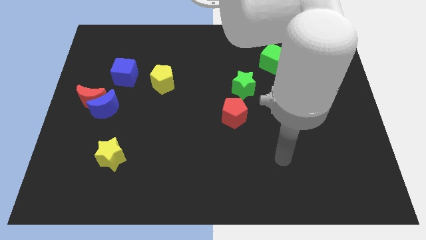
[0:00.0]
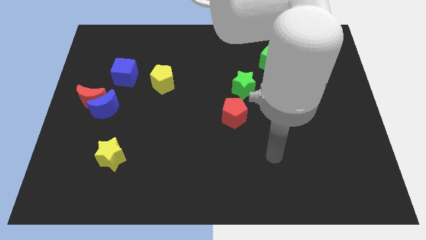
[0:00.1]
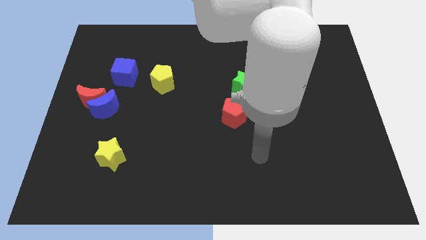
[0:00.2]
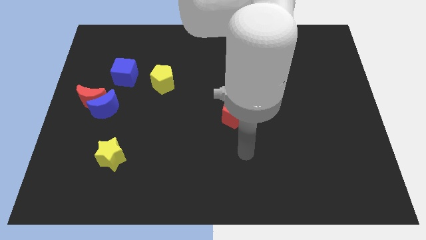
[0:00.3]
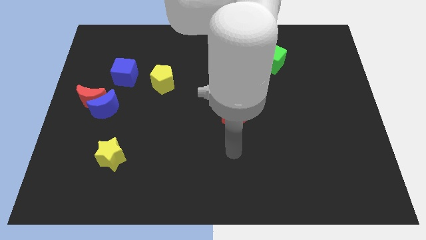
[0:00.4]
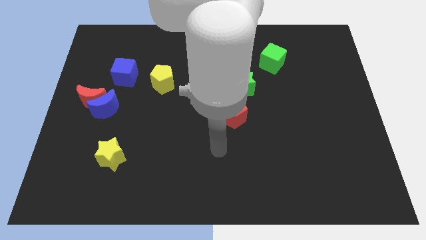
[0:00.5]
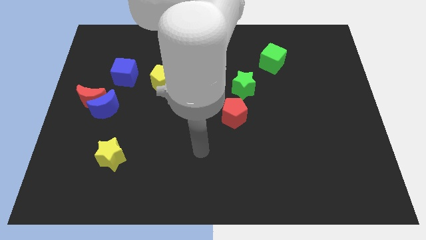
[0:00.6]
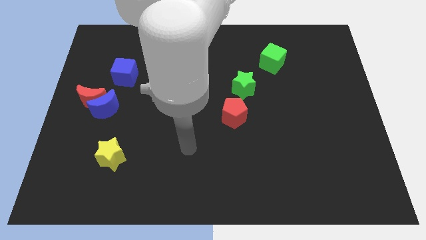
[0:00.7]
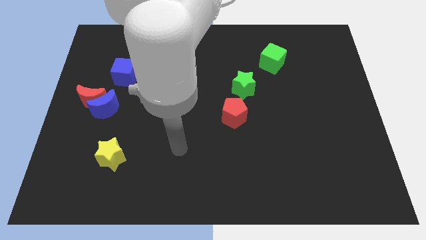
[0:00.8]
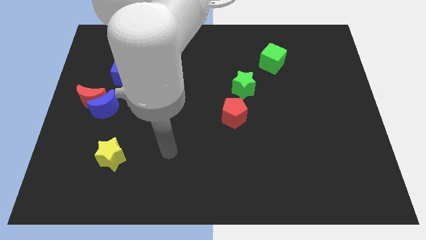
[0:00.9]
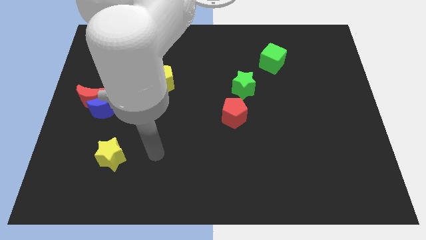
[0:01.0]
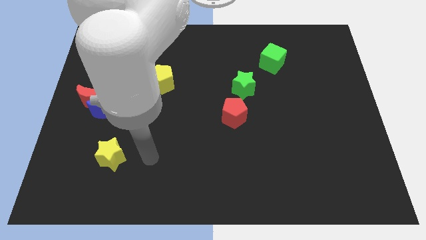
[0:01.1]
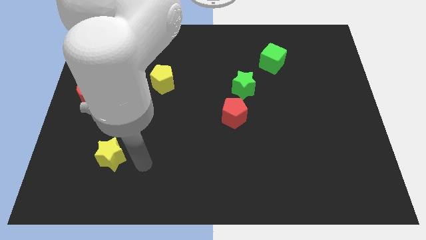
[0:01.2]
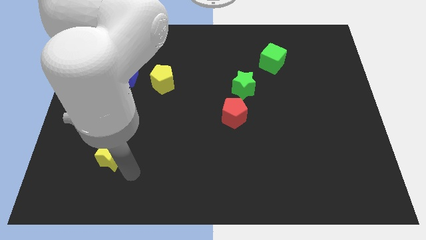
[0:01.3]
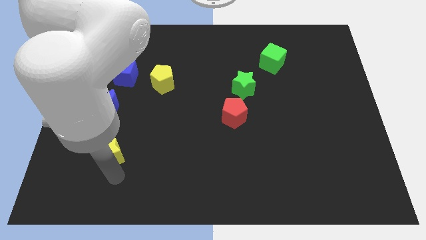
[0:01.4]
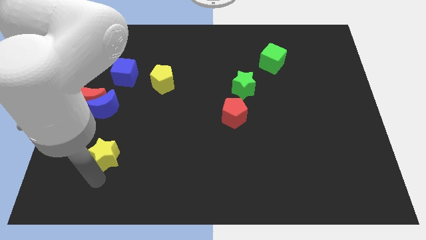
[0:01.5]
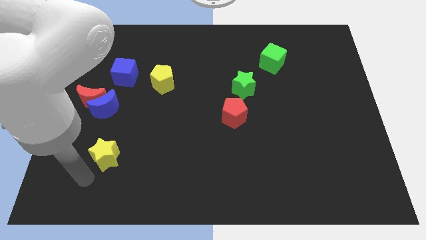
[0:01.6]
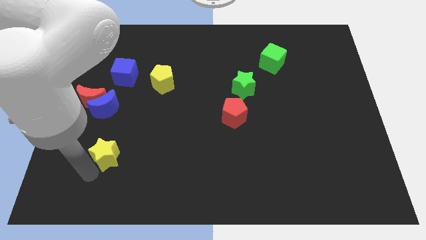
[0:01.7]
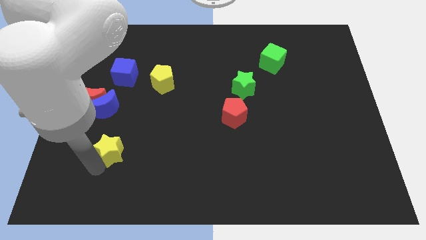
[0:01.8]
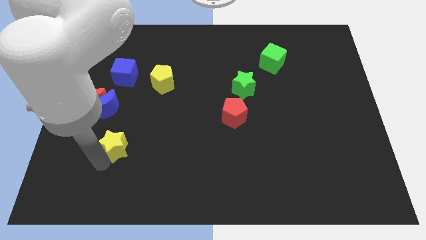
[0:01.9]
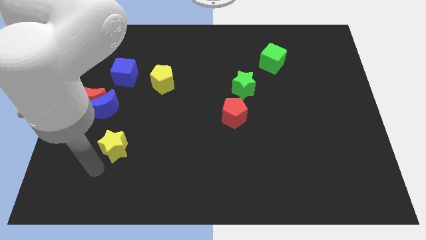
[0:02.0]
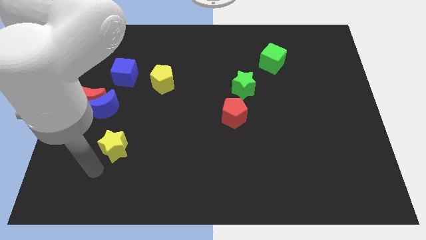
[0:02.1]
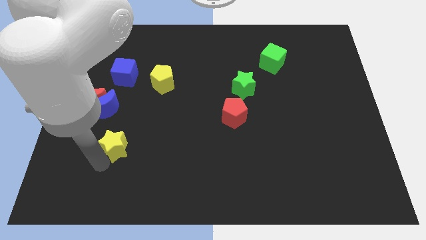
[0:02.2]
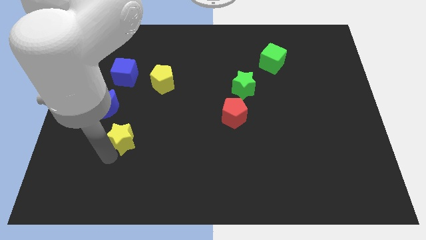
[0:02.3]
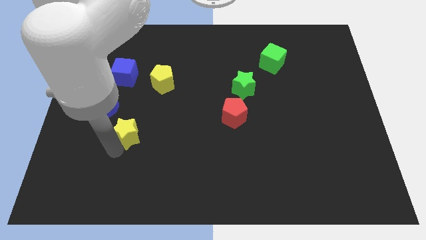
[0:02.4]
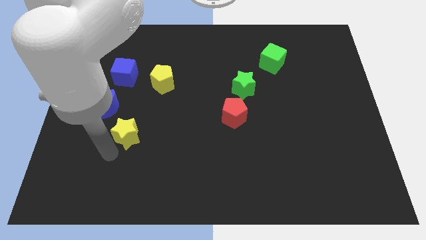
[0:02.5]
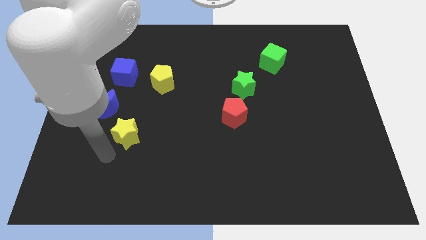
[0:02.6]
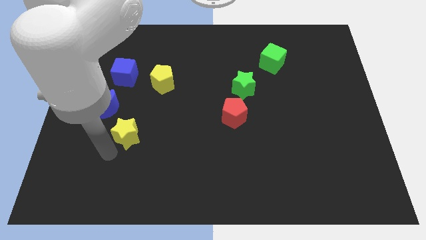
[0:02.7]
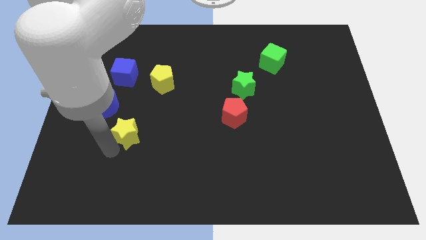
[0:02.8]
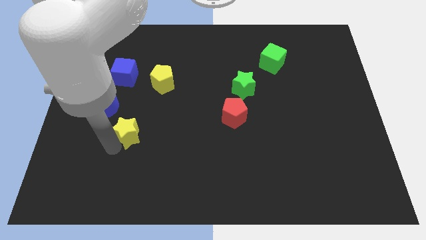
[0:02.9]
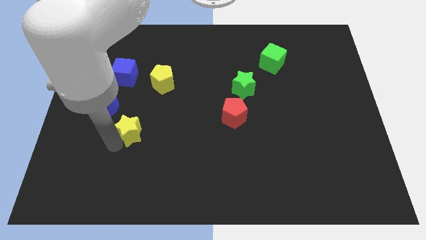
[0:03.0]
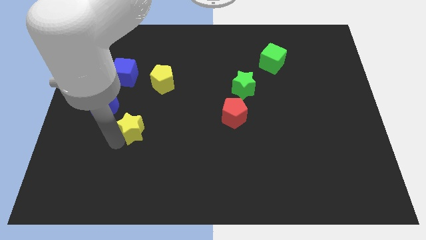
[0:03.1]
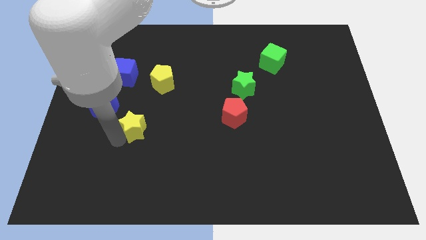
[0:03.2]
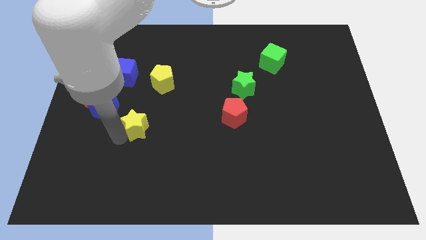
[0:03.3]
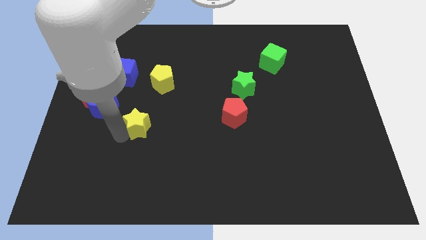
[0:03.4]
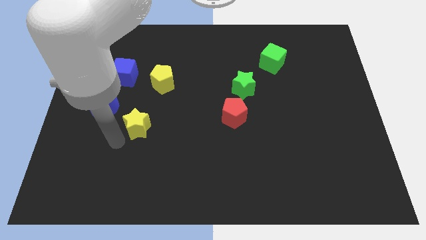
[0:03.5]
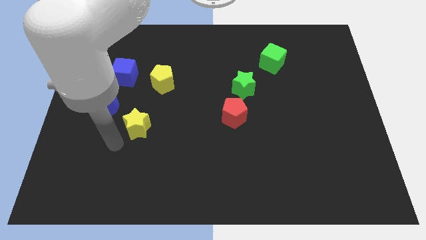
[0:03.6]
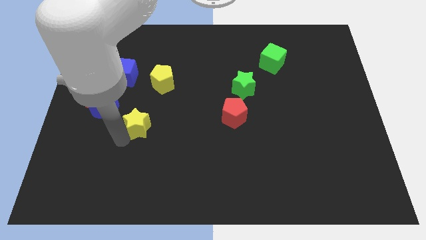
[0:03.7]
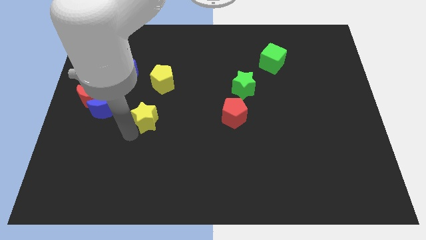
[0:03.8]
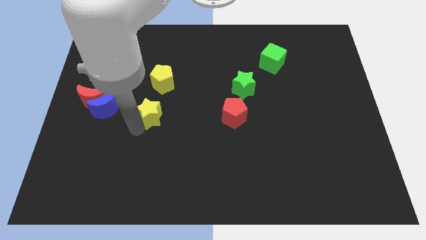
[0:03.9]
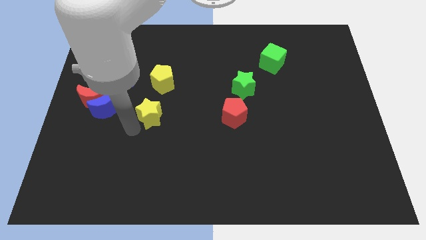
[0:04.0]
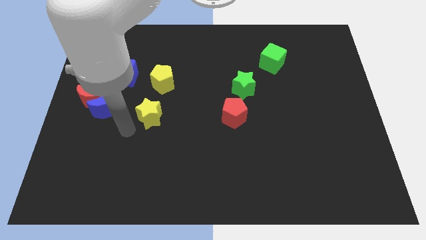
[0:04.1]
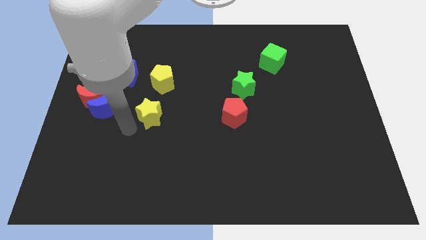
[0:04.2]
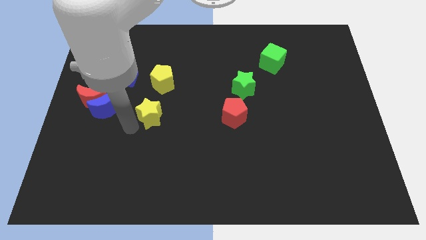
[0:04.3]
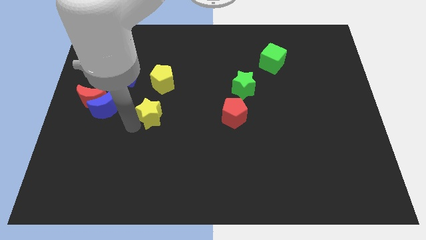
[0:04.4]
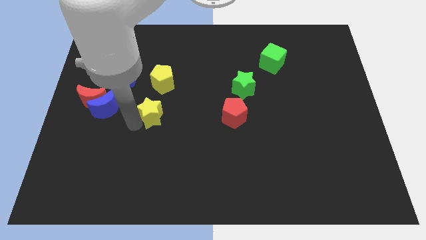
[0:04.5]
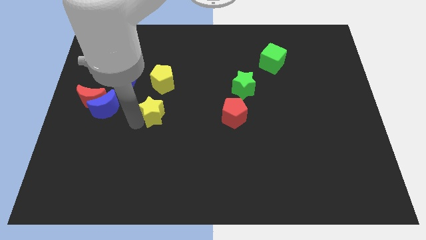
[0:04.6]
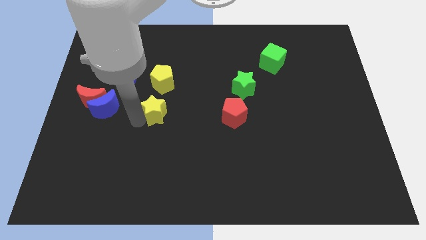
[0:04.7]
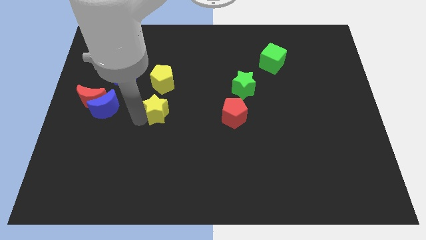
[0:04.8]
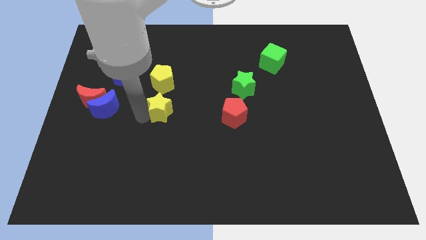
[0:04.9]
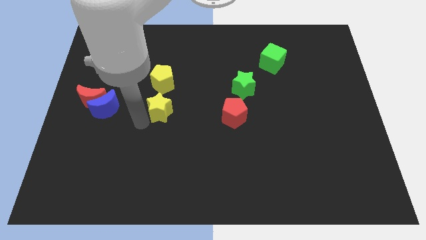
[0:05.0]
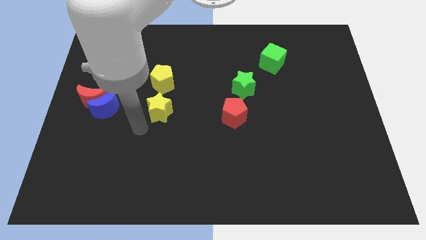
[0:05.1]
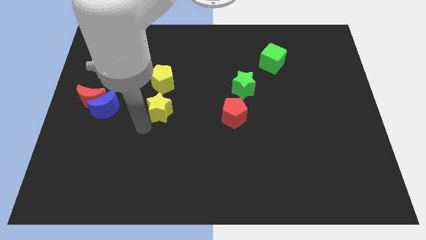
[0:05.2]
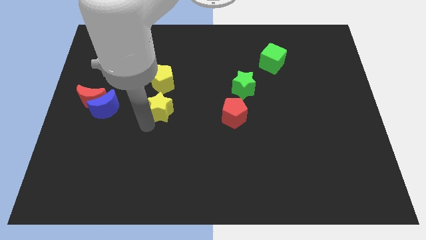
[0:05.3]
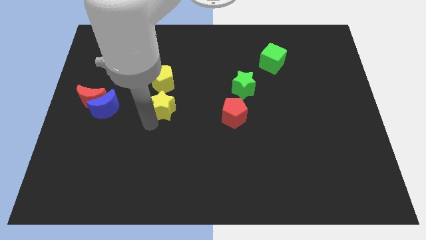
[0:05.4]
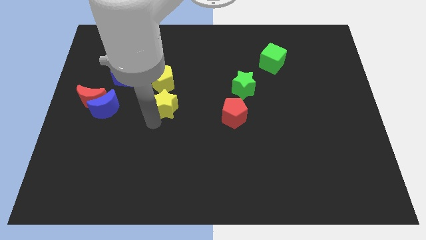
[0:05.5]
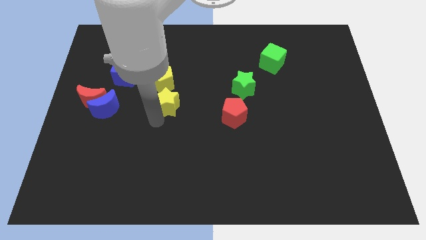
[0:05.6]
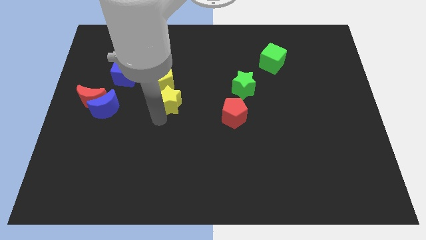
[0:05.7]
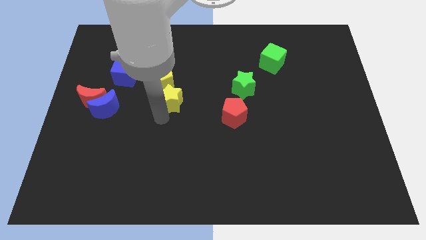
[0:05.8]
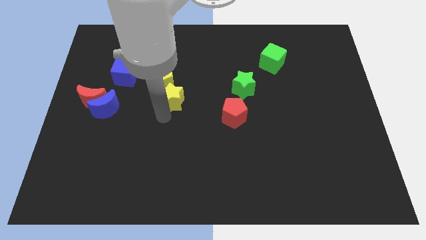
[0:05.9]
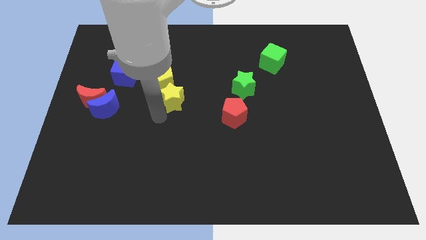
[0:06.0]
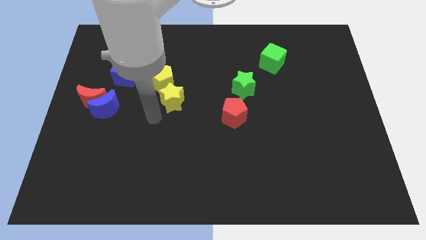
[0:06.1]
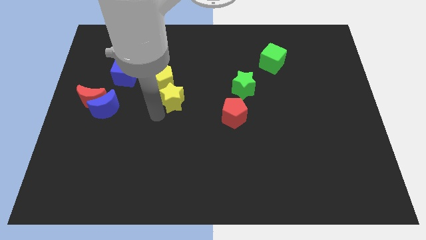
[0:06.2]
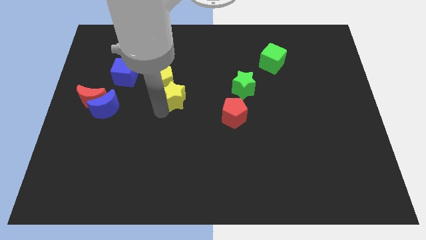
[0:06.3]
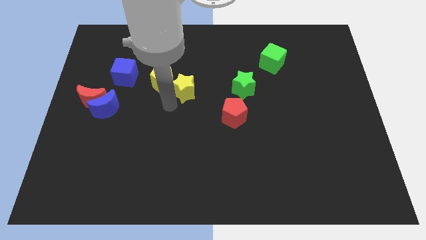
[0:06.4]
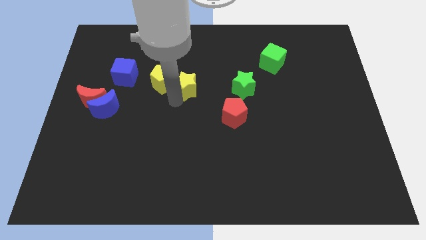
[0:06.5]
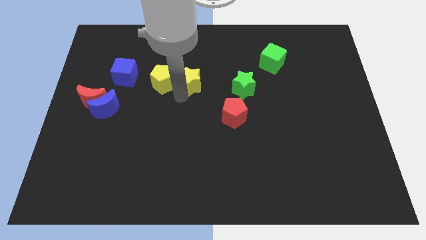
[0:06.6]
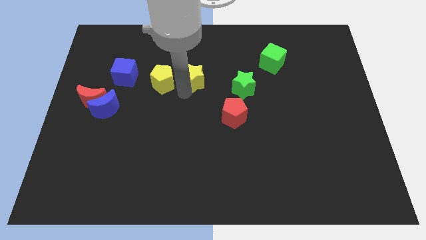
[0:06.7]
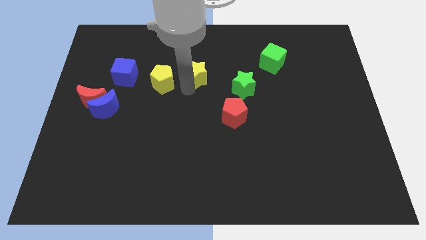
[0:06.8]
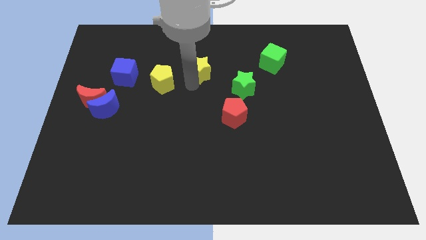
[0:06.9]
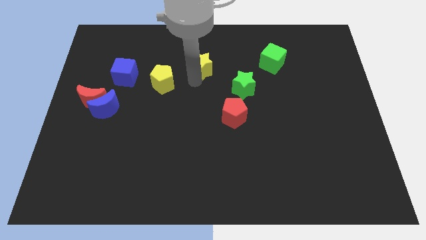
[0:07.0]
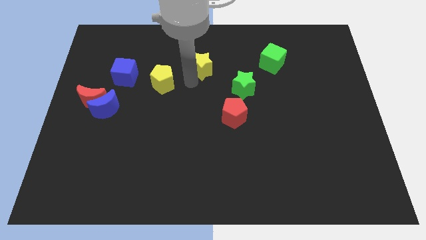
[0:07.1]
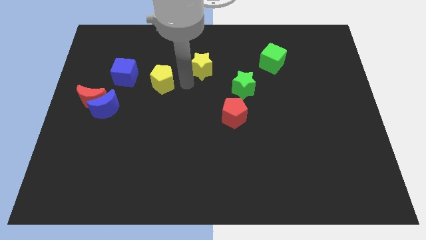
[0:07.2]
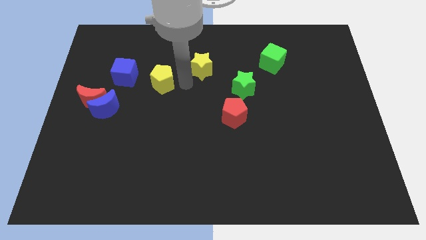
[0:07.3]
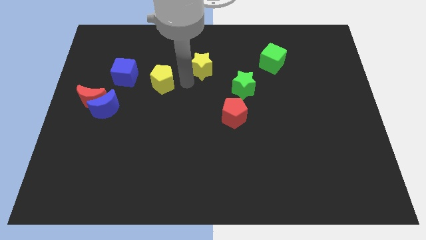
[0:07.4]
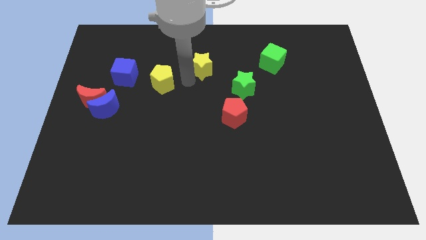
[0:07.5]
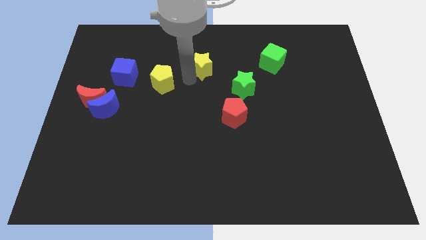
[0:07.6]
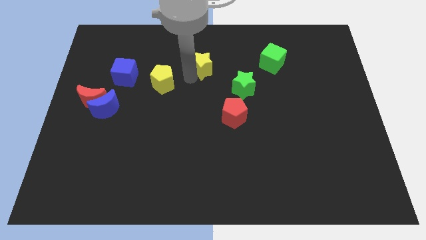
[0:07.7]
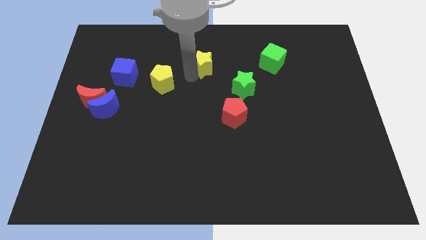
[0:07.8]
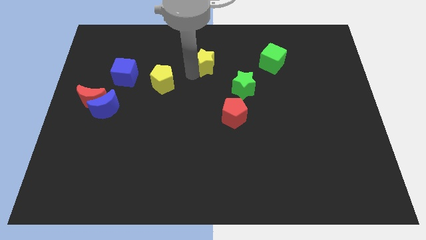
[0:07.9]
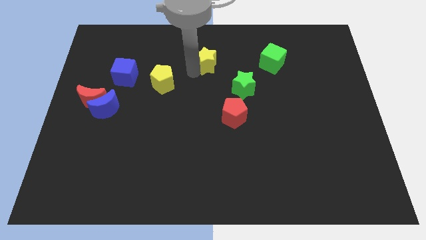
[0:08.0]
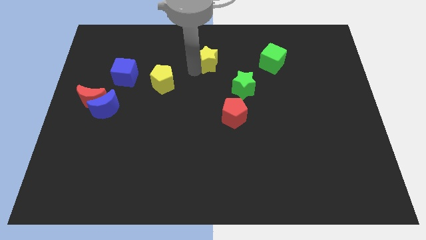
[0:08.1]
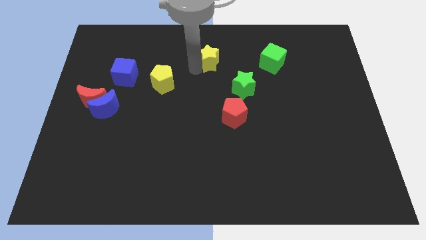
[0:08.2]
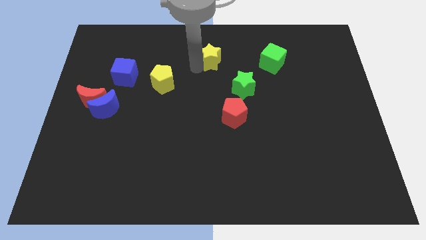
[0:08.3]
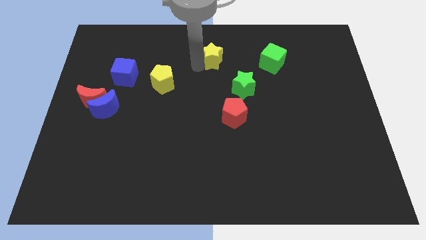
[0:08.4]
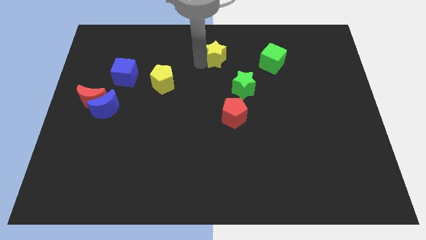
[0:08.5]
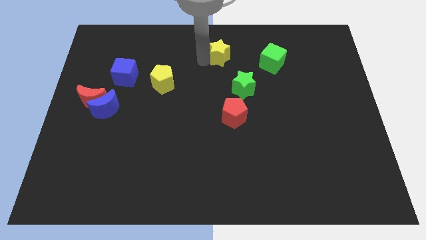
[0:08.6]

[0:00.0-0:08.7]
put the yellow star to the towards your base
